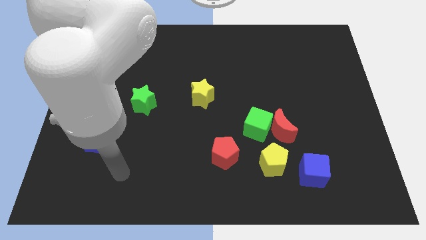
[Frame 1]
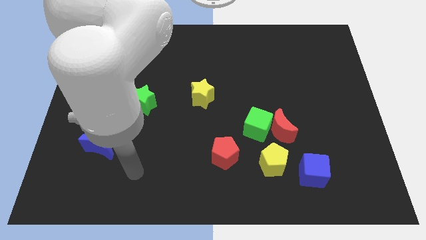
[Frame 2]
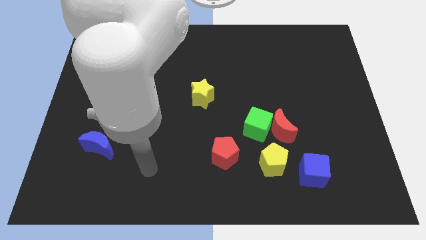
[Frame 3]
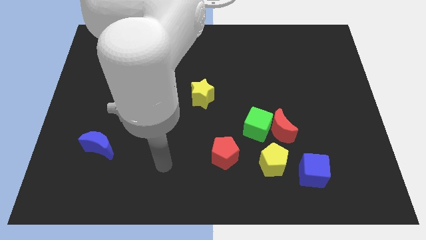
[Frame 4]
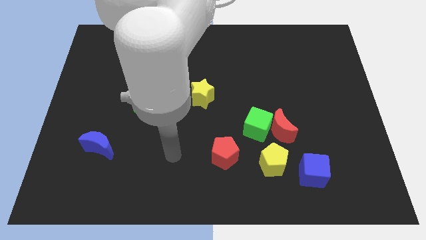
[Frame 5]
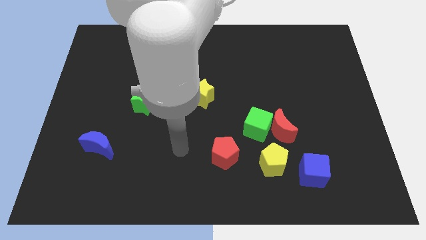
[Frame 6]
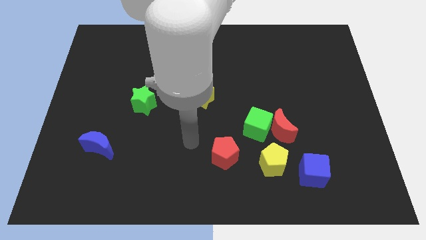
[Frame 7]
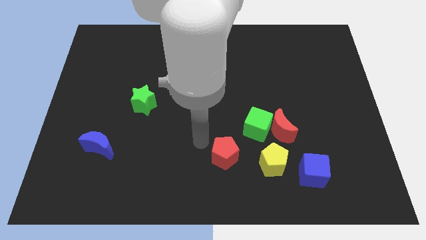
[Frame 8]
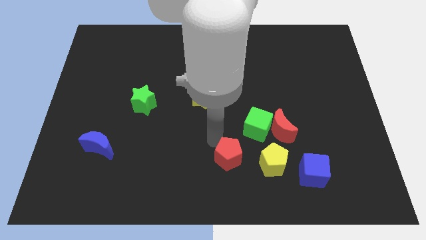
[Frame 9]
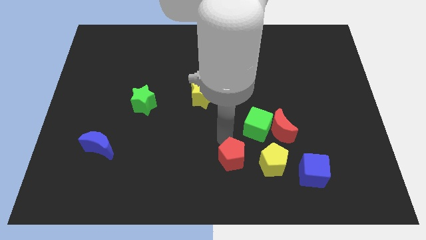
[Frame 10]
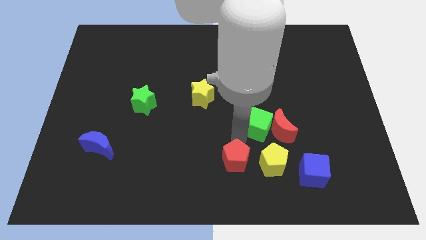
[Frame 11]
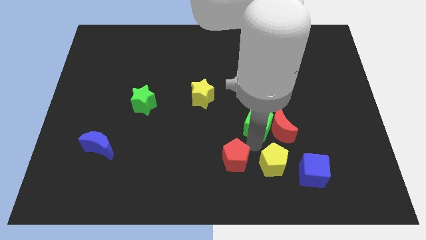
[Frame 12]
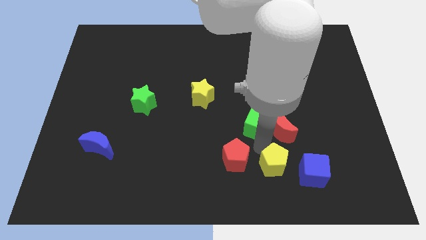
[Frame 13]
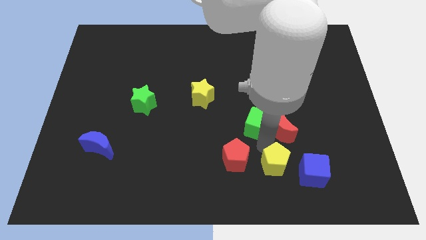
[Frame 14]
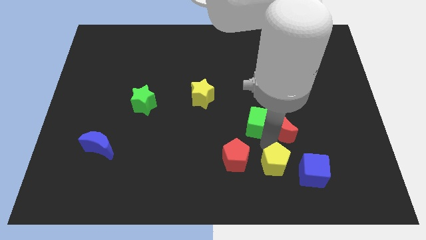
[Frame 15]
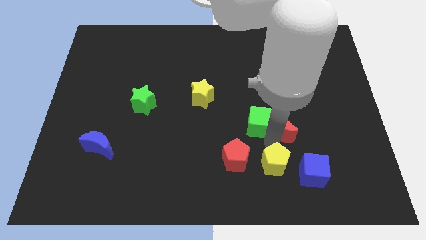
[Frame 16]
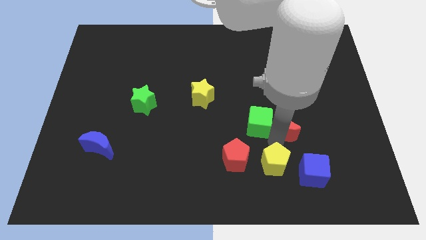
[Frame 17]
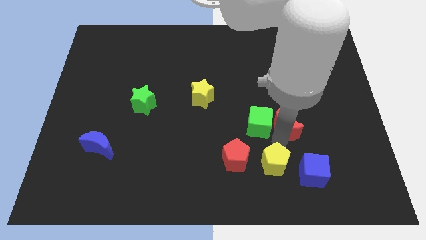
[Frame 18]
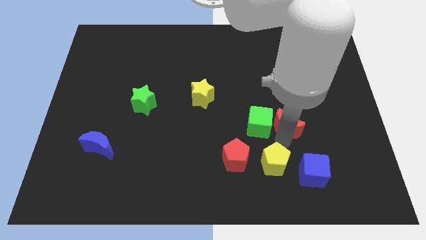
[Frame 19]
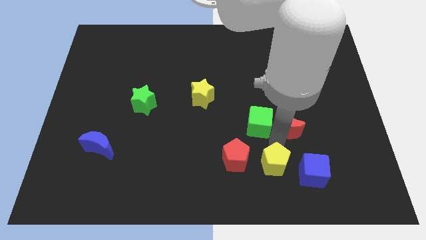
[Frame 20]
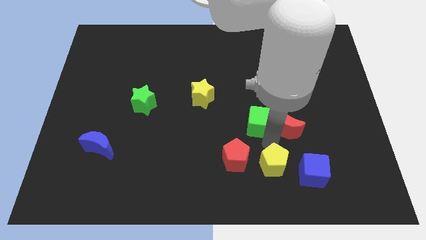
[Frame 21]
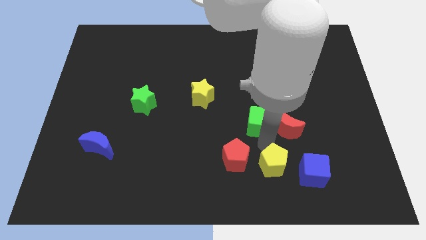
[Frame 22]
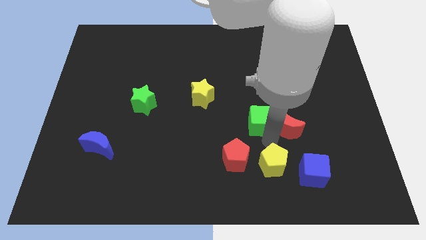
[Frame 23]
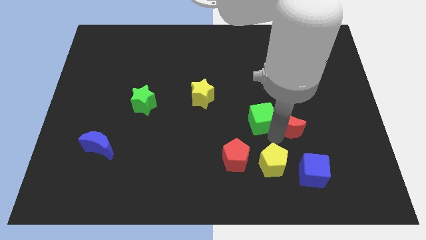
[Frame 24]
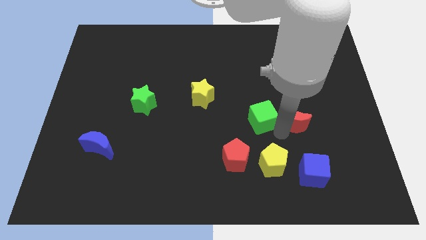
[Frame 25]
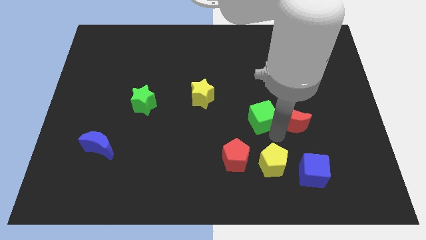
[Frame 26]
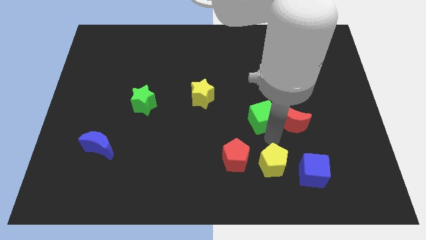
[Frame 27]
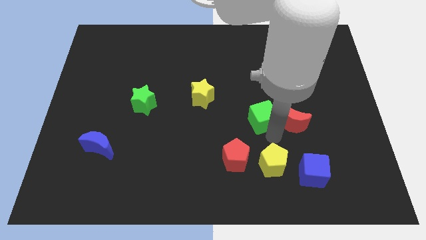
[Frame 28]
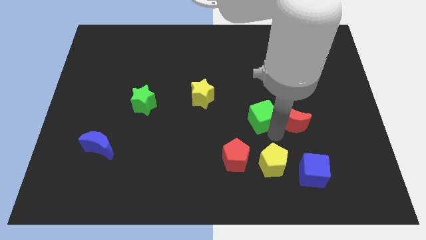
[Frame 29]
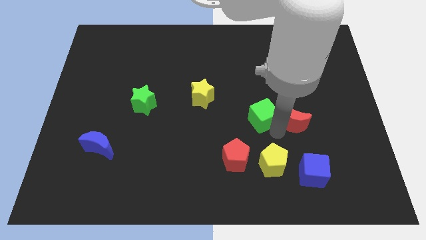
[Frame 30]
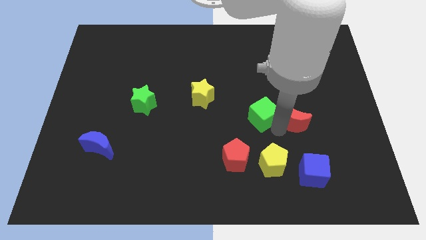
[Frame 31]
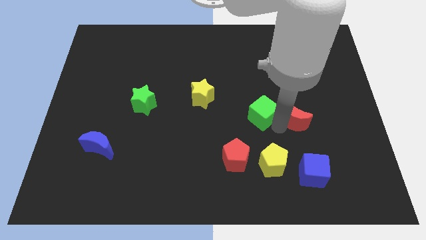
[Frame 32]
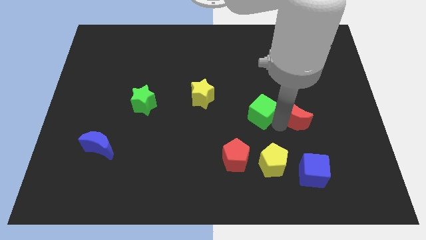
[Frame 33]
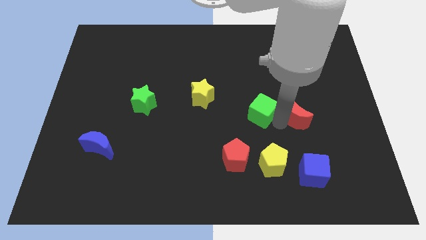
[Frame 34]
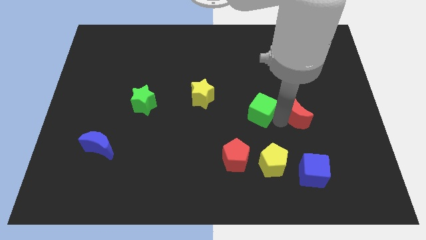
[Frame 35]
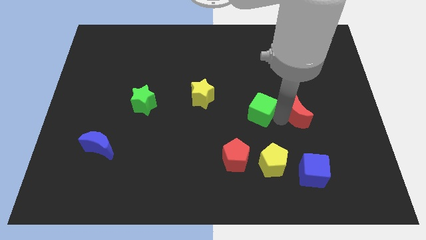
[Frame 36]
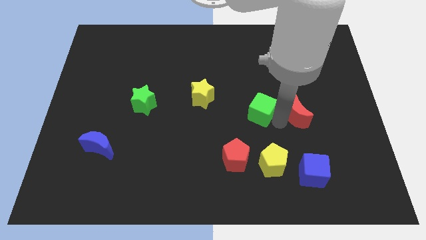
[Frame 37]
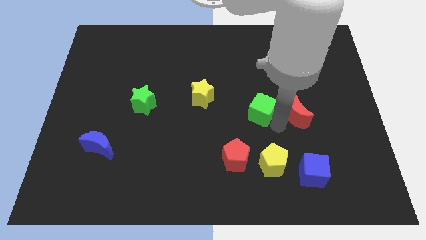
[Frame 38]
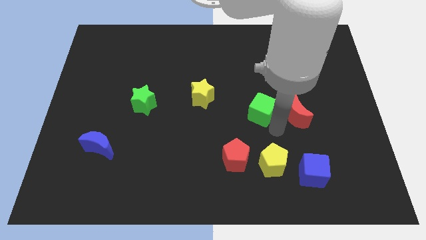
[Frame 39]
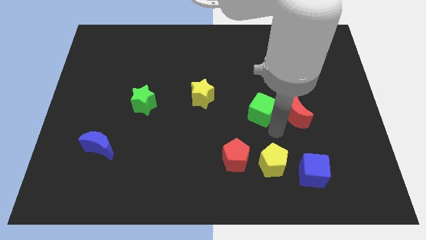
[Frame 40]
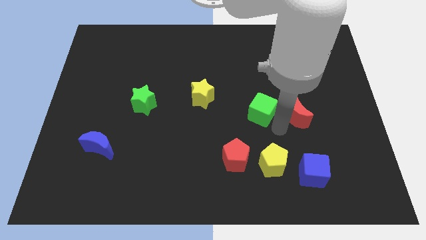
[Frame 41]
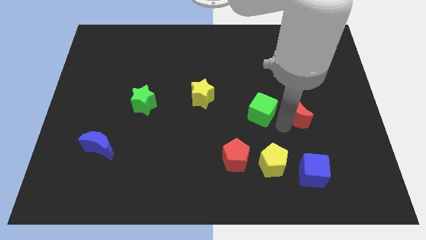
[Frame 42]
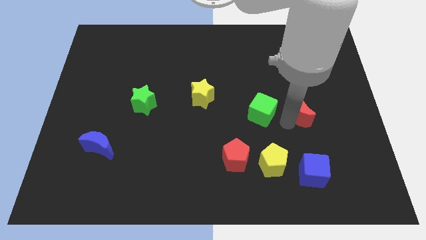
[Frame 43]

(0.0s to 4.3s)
pull the red moon apart from the green cube and yellow pentagon

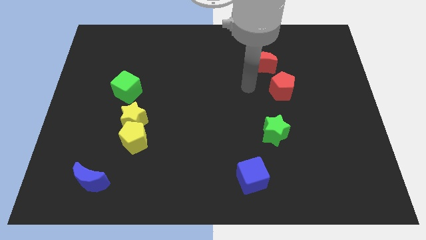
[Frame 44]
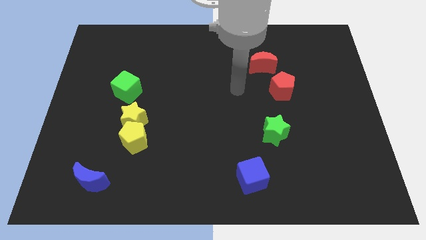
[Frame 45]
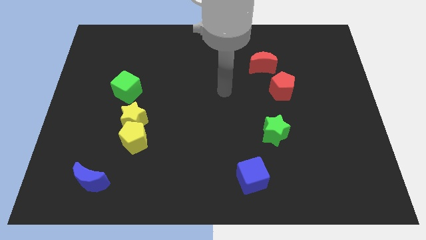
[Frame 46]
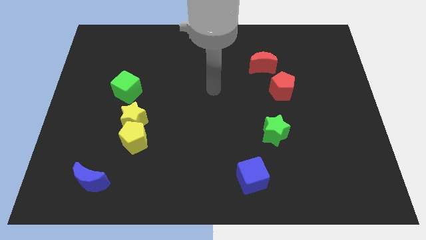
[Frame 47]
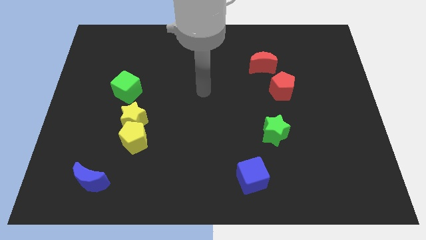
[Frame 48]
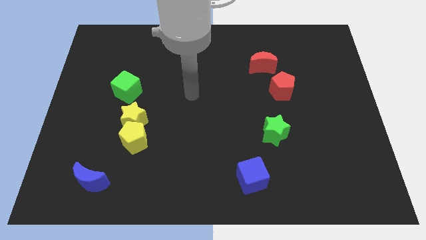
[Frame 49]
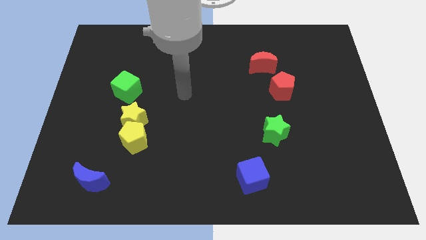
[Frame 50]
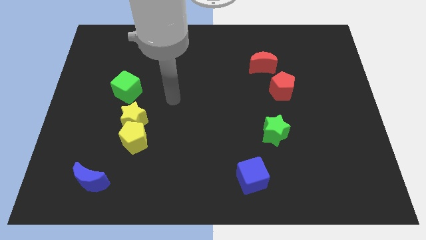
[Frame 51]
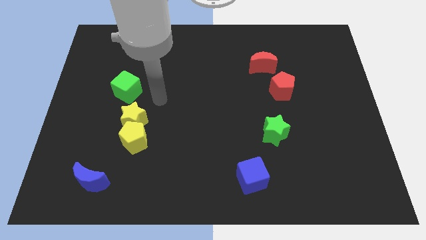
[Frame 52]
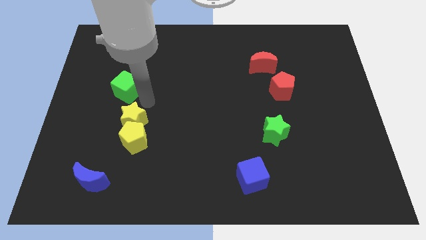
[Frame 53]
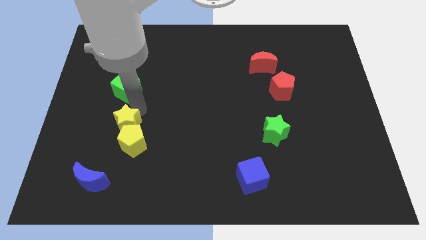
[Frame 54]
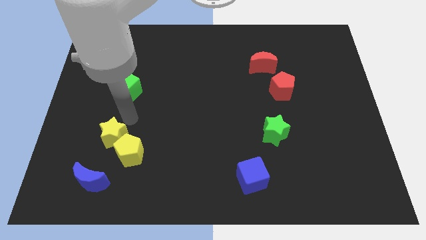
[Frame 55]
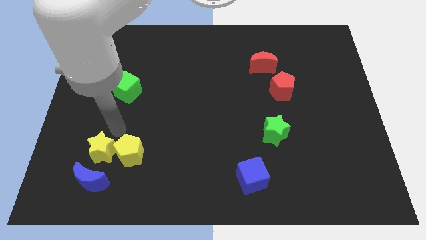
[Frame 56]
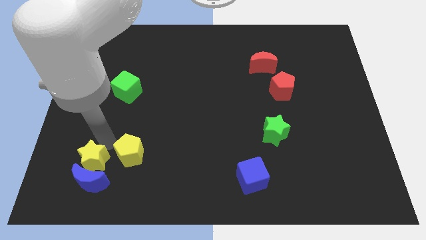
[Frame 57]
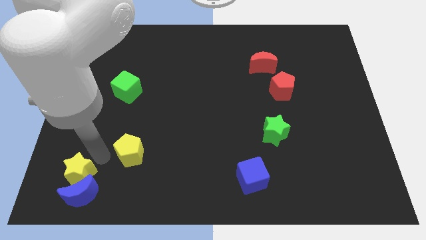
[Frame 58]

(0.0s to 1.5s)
move the yellow pentagon away from the yellow star

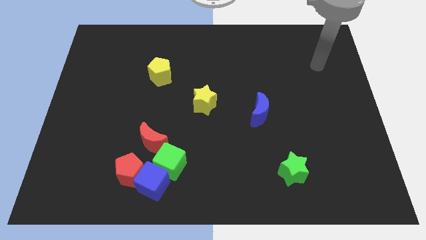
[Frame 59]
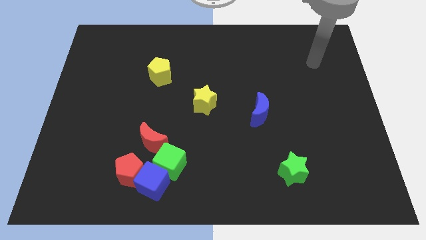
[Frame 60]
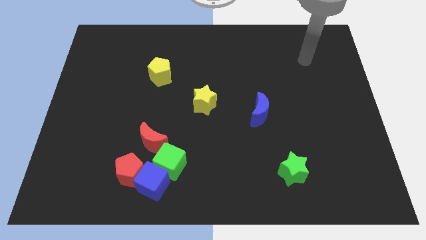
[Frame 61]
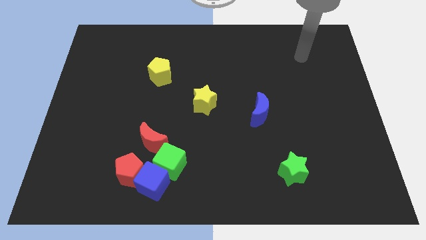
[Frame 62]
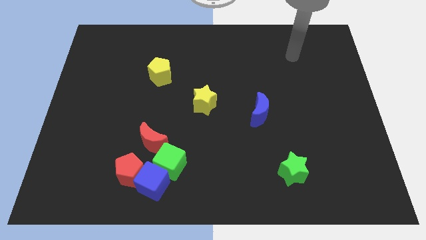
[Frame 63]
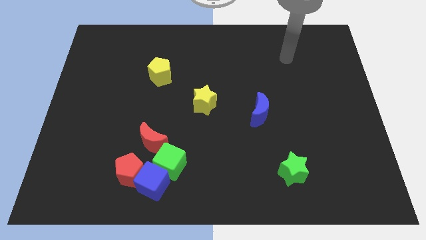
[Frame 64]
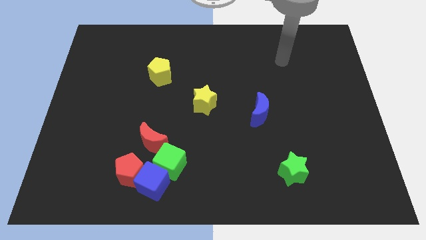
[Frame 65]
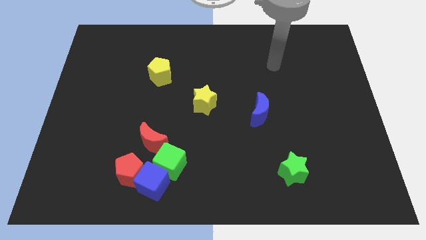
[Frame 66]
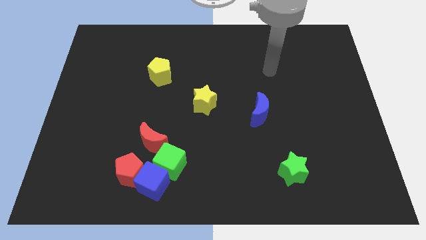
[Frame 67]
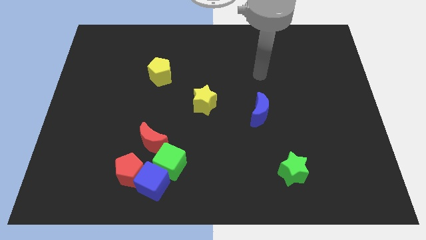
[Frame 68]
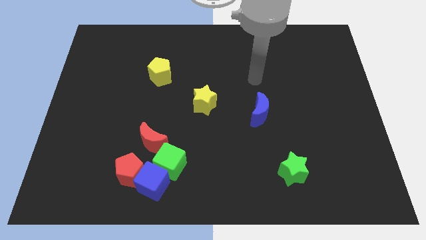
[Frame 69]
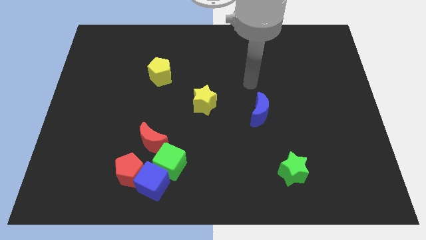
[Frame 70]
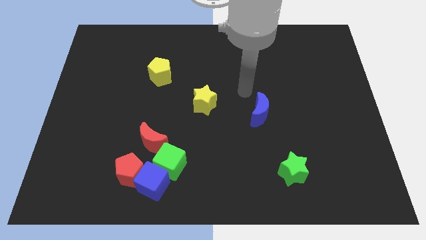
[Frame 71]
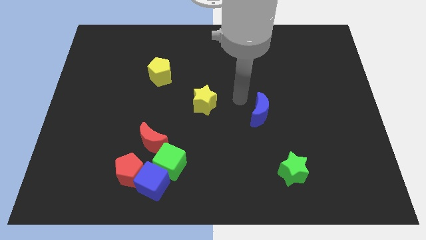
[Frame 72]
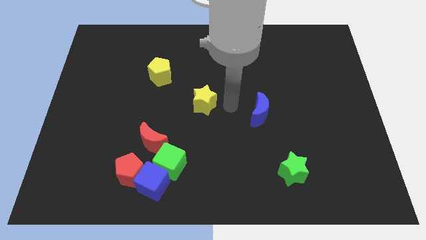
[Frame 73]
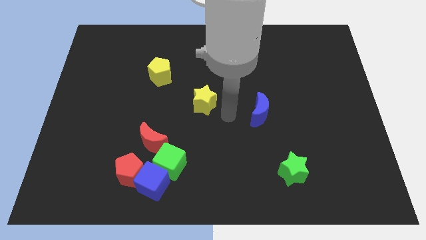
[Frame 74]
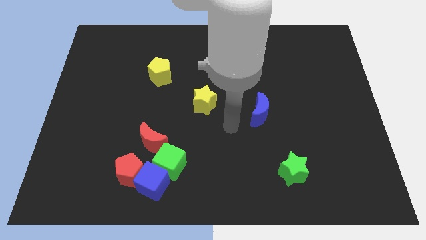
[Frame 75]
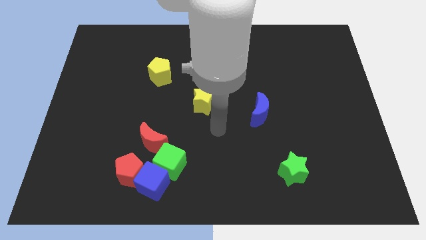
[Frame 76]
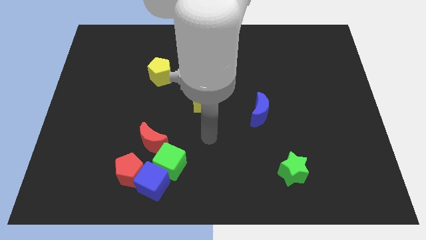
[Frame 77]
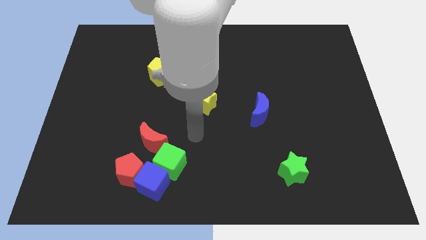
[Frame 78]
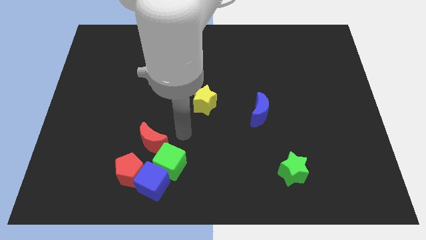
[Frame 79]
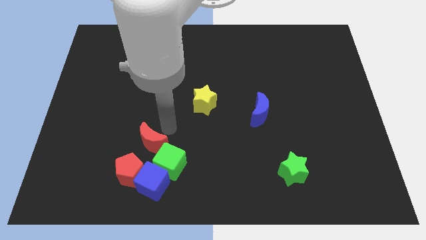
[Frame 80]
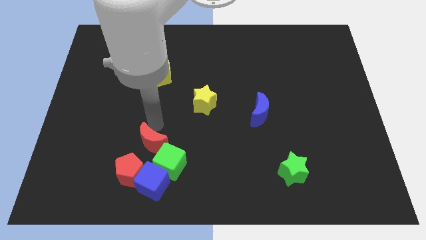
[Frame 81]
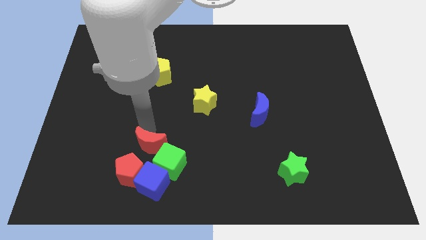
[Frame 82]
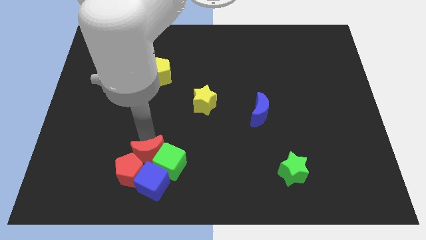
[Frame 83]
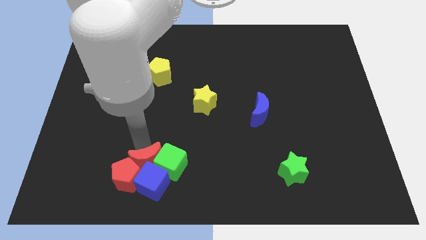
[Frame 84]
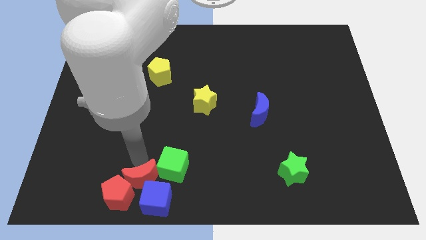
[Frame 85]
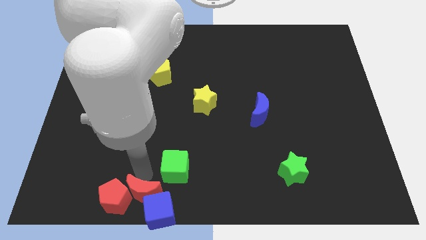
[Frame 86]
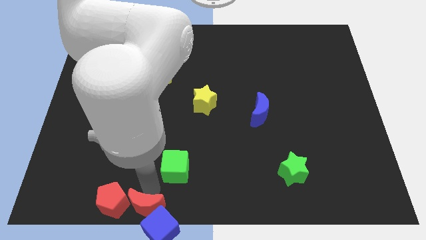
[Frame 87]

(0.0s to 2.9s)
separate the green cube from the clump

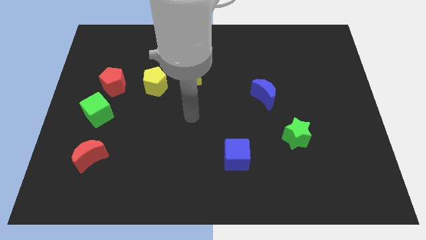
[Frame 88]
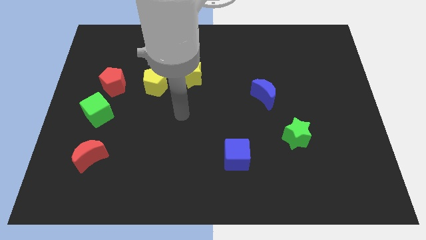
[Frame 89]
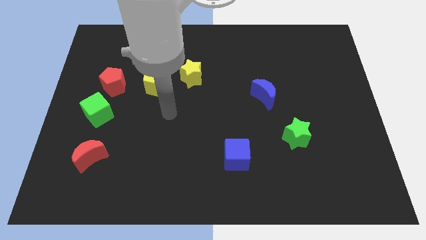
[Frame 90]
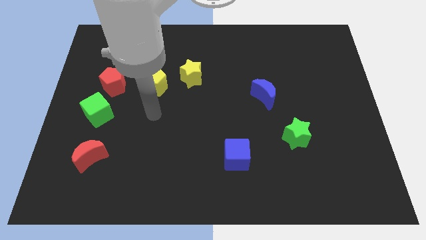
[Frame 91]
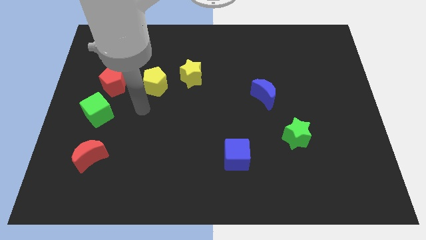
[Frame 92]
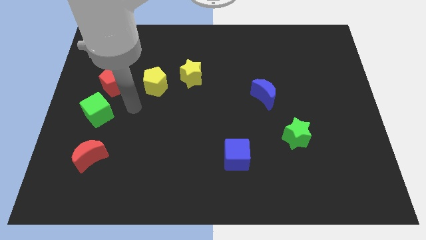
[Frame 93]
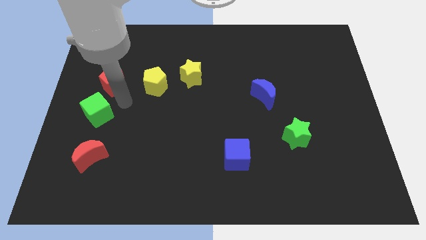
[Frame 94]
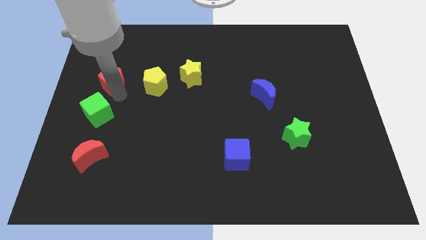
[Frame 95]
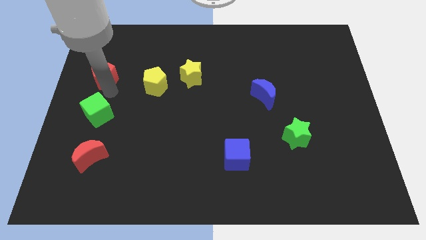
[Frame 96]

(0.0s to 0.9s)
separate the green cube from the red pentagon
